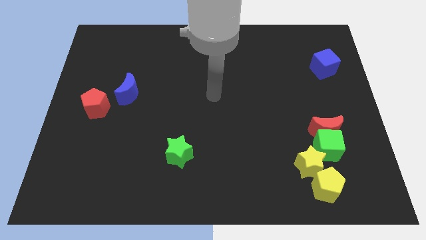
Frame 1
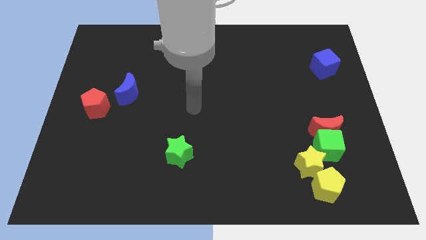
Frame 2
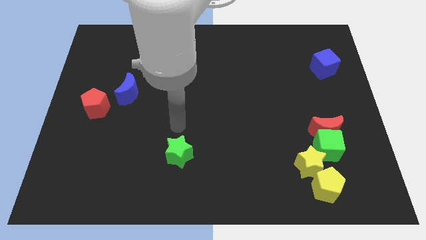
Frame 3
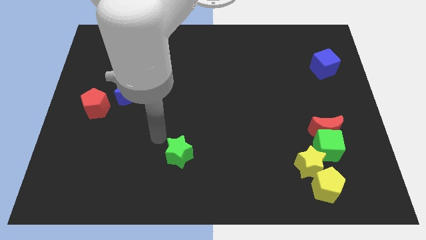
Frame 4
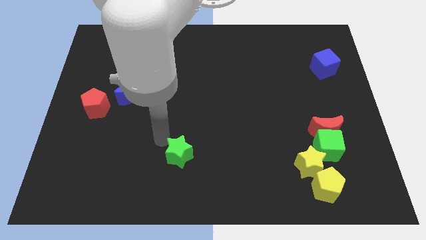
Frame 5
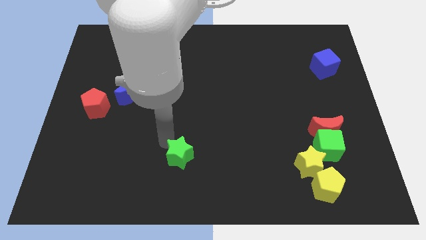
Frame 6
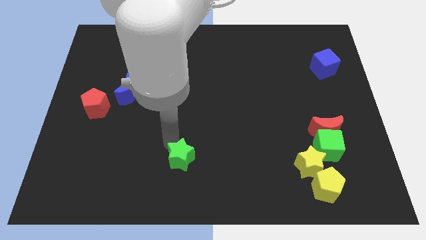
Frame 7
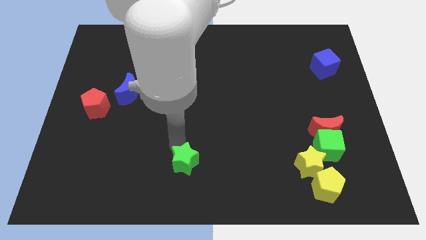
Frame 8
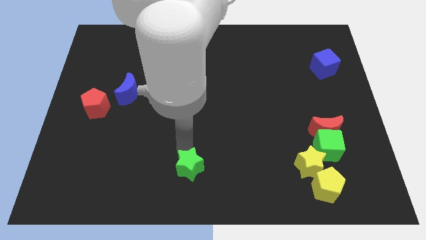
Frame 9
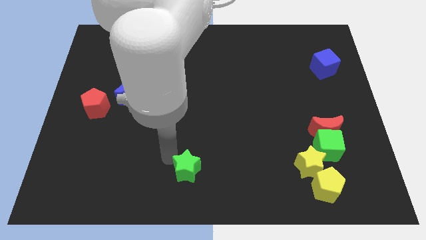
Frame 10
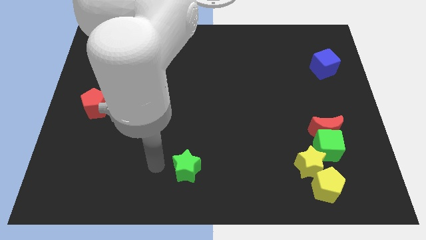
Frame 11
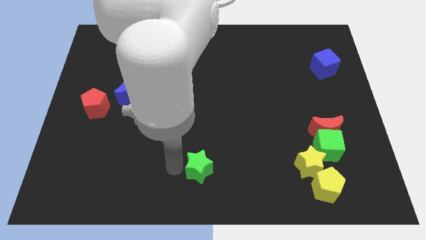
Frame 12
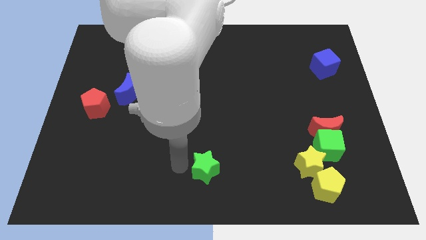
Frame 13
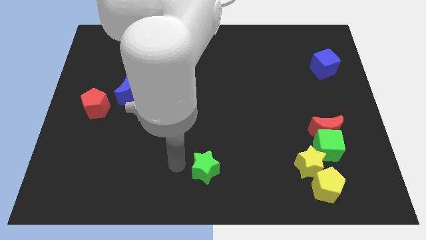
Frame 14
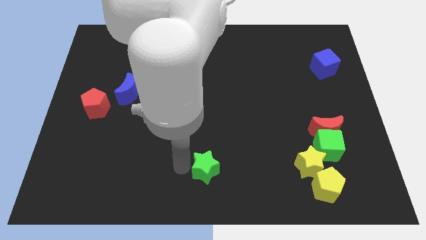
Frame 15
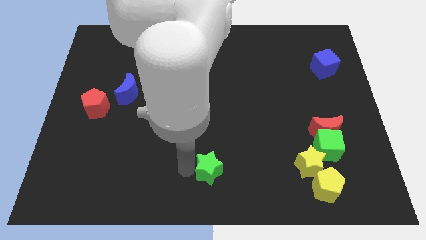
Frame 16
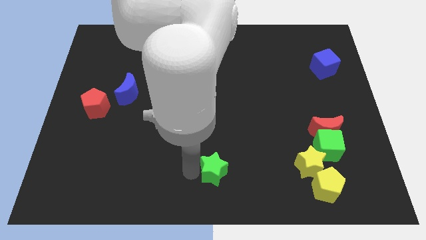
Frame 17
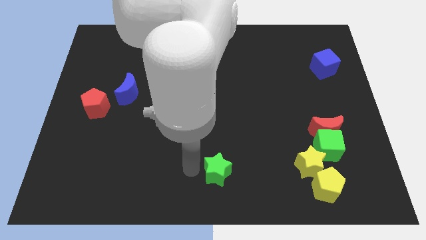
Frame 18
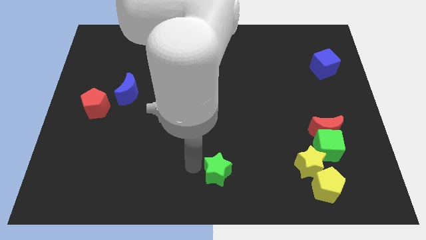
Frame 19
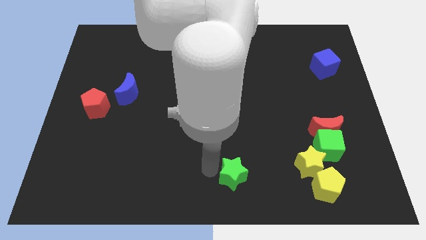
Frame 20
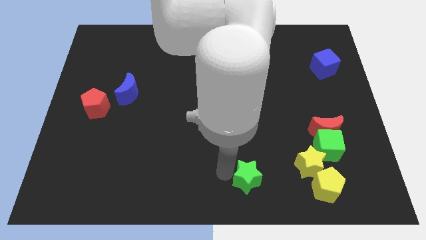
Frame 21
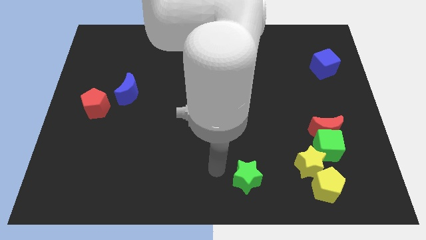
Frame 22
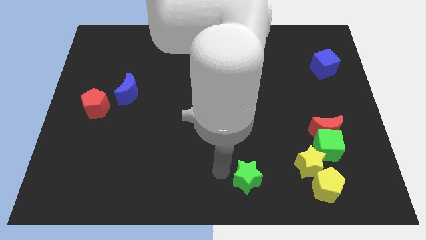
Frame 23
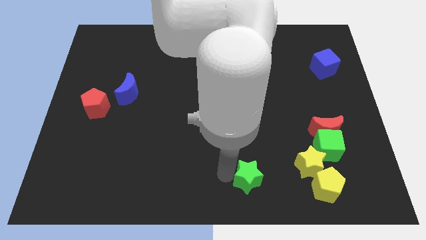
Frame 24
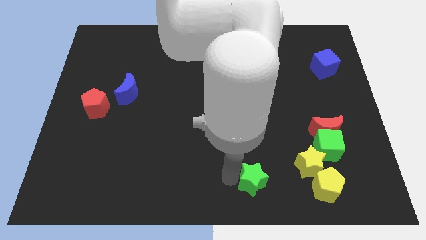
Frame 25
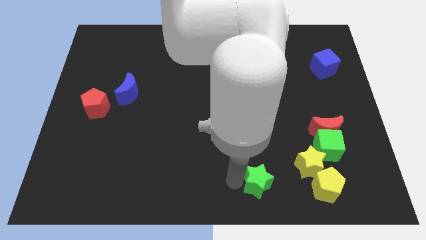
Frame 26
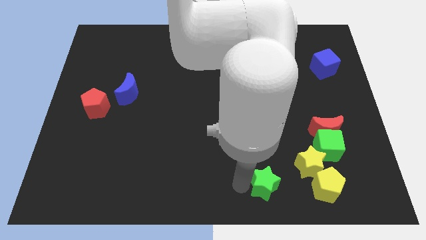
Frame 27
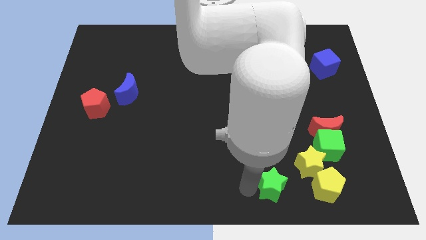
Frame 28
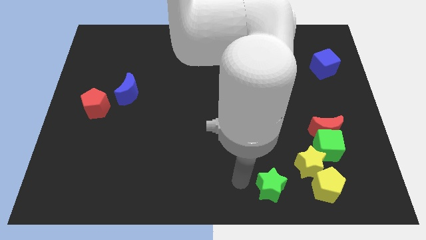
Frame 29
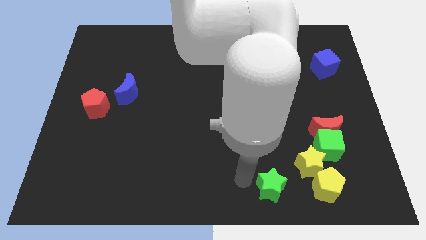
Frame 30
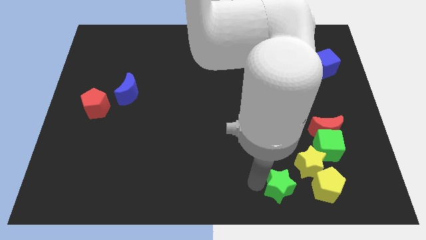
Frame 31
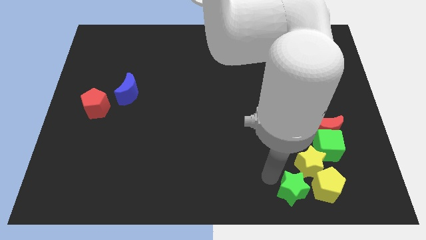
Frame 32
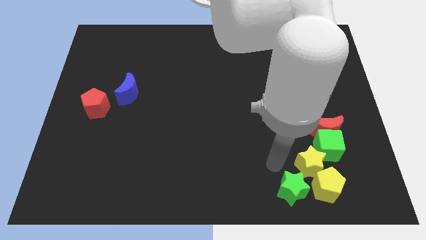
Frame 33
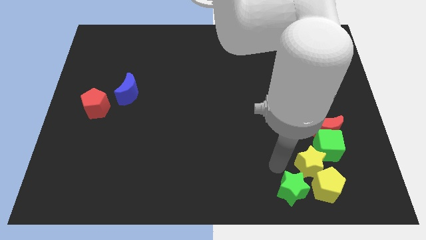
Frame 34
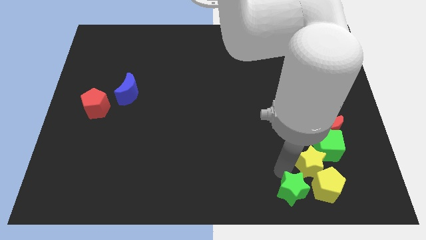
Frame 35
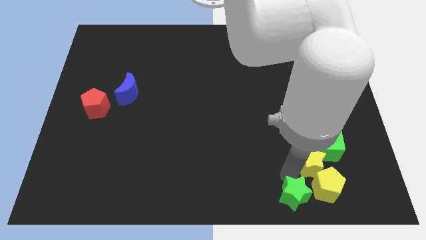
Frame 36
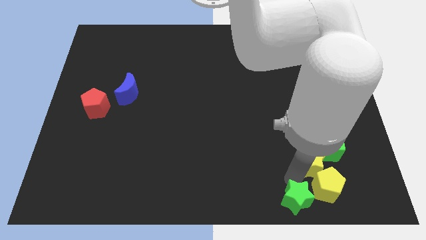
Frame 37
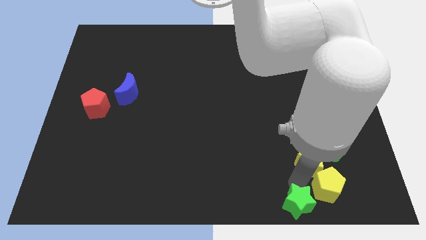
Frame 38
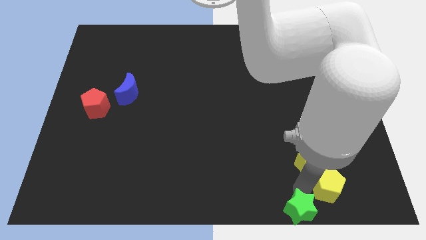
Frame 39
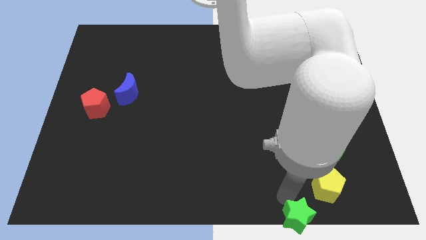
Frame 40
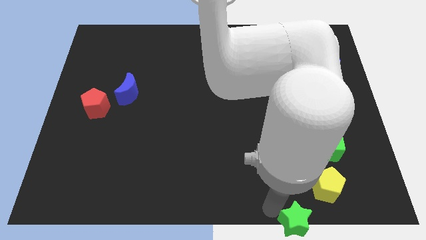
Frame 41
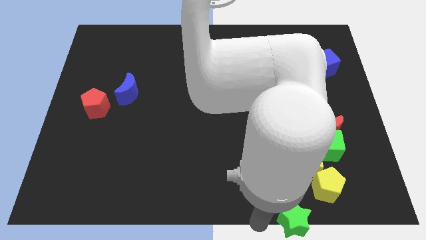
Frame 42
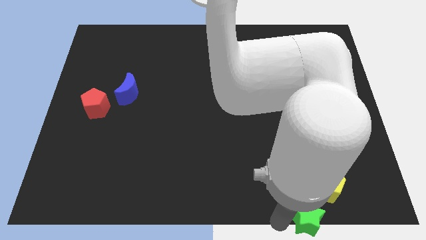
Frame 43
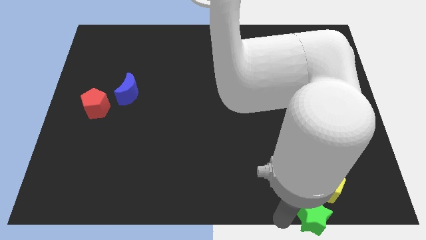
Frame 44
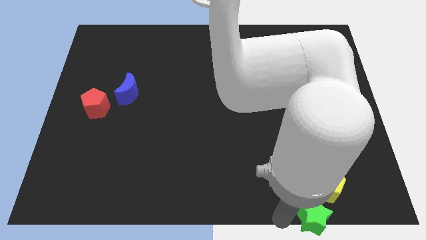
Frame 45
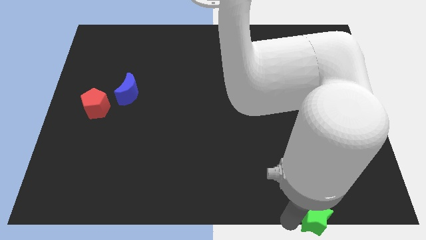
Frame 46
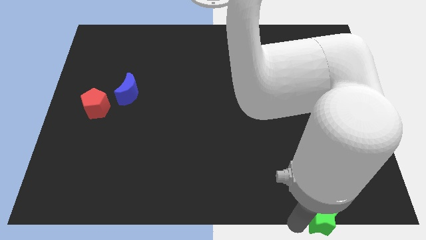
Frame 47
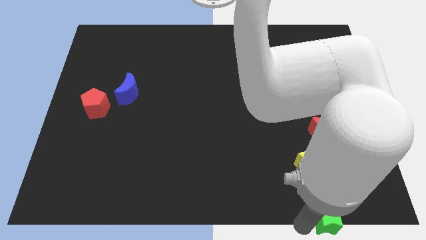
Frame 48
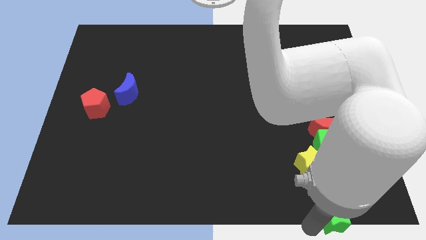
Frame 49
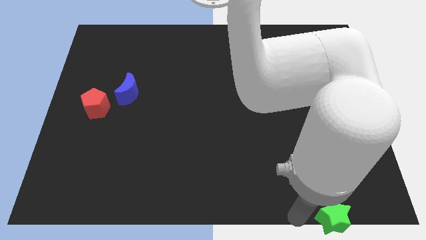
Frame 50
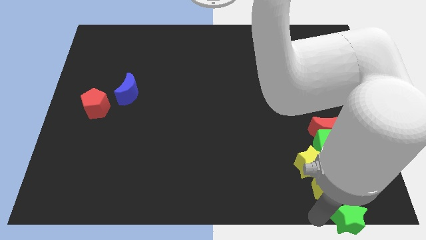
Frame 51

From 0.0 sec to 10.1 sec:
push the green star to the bottom right corner

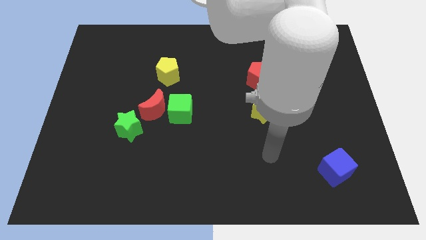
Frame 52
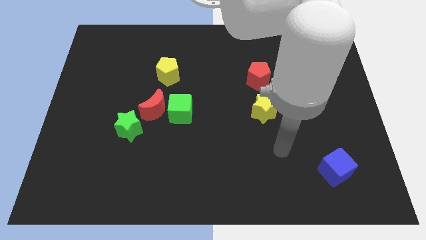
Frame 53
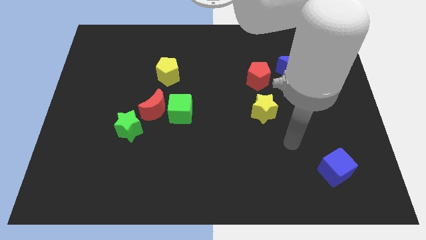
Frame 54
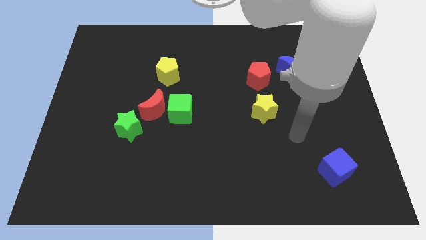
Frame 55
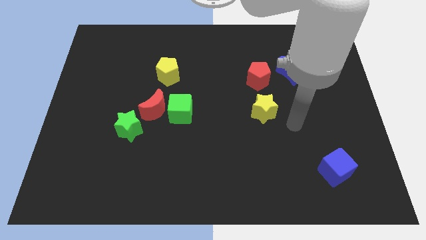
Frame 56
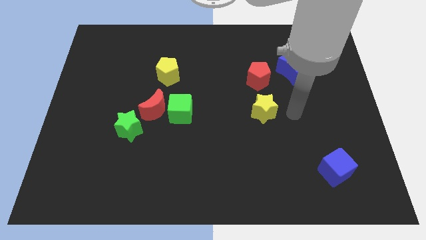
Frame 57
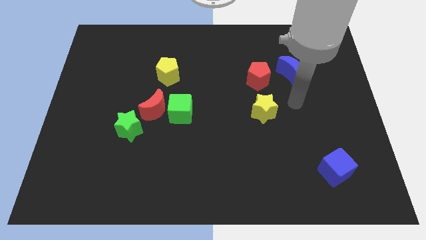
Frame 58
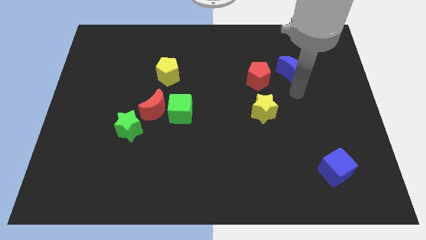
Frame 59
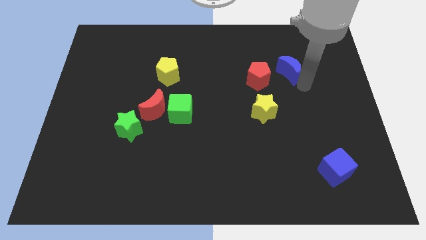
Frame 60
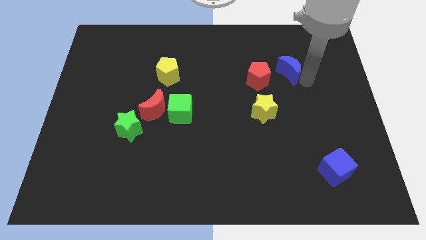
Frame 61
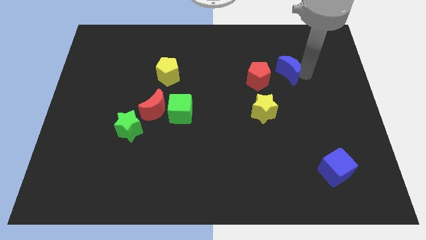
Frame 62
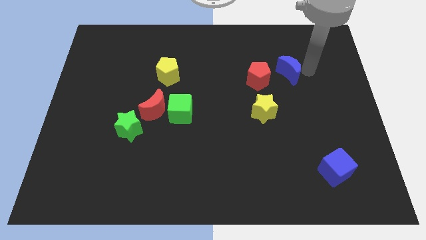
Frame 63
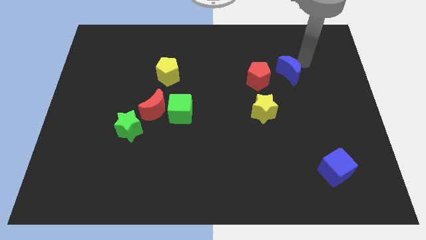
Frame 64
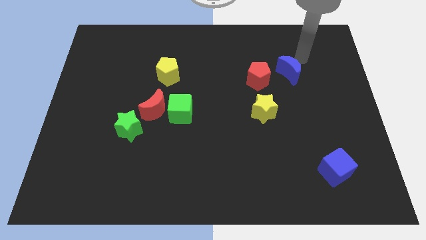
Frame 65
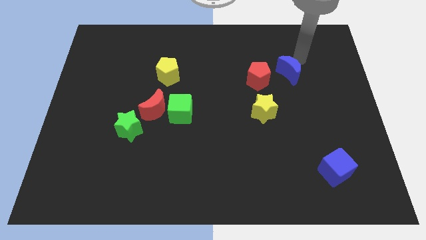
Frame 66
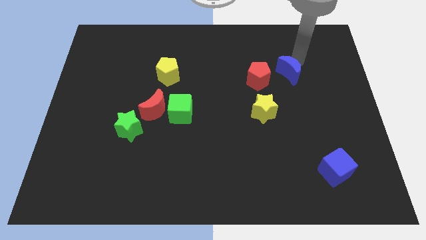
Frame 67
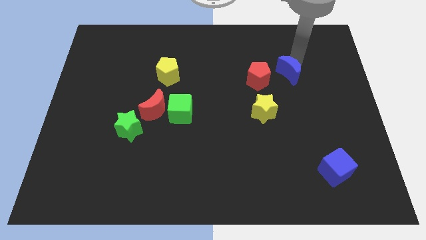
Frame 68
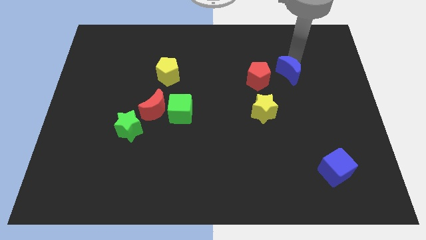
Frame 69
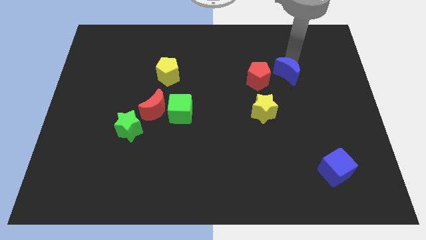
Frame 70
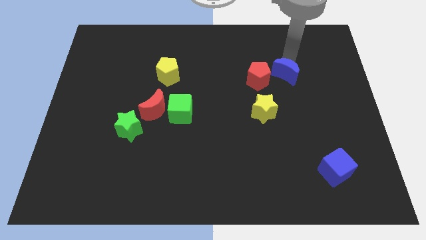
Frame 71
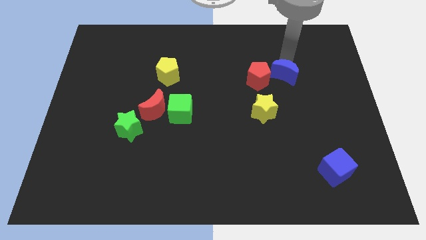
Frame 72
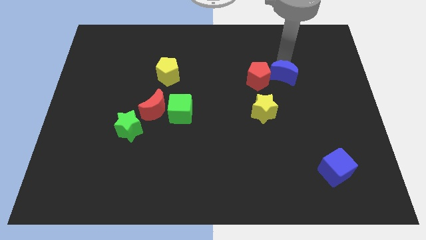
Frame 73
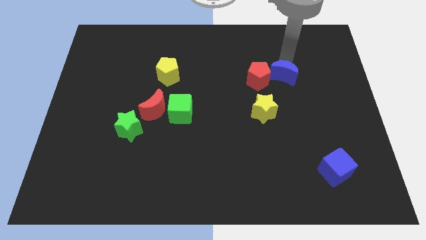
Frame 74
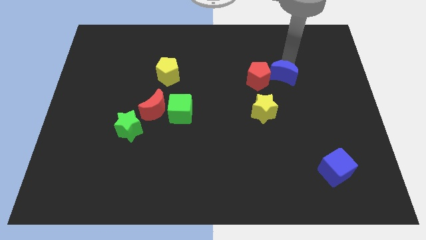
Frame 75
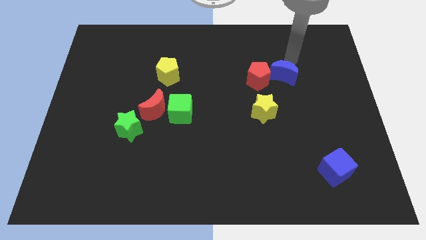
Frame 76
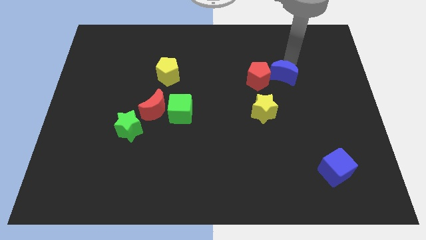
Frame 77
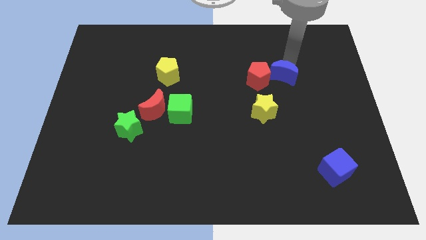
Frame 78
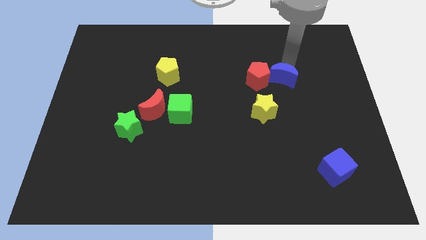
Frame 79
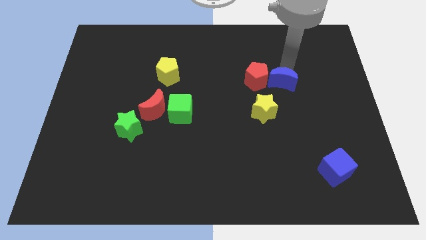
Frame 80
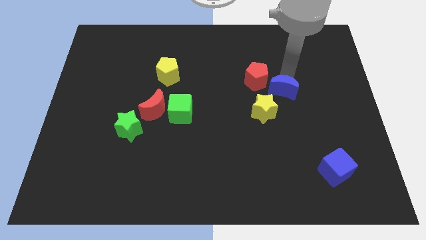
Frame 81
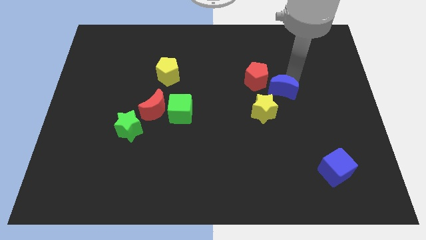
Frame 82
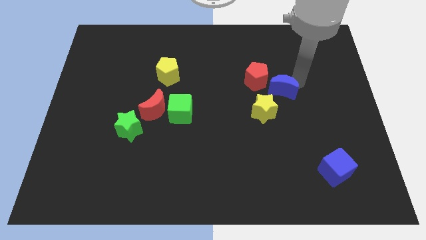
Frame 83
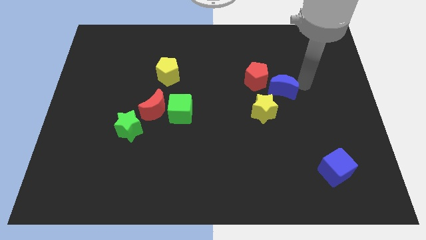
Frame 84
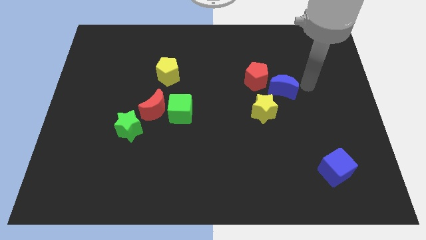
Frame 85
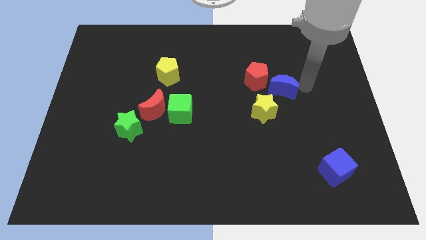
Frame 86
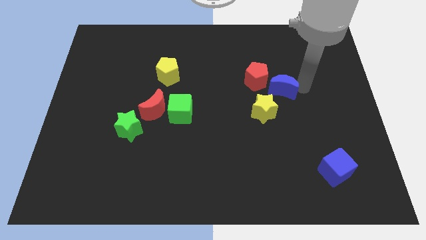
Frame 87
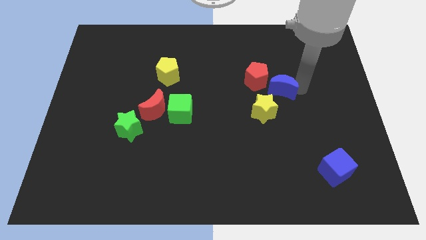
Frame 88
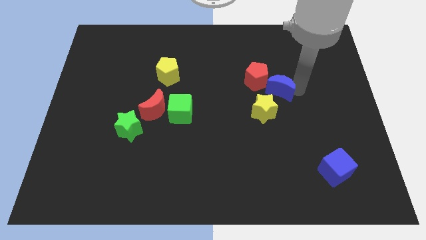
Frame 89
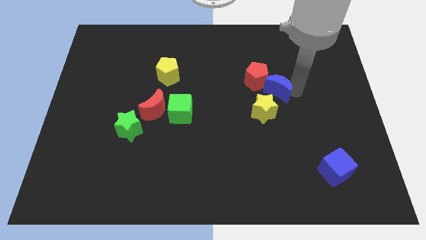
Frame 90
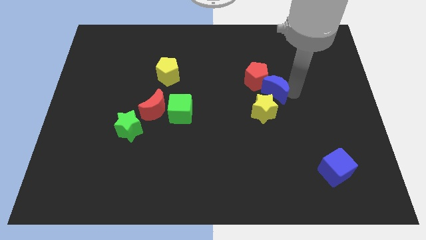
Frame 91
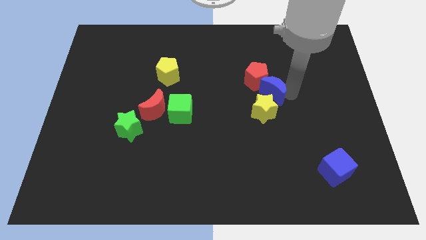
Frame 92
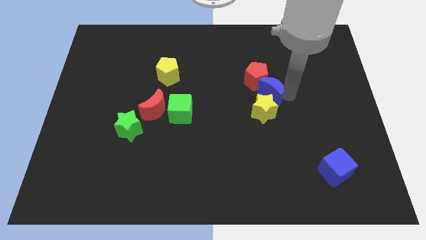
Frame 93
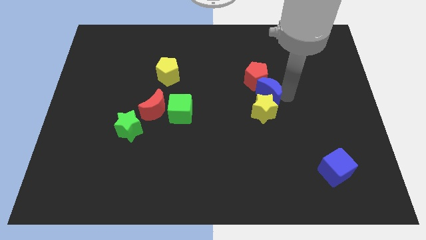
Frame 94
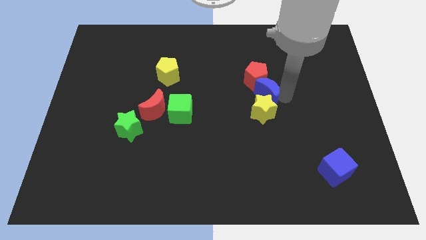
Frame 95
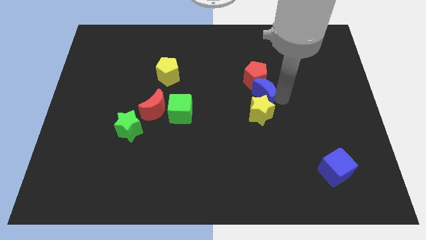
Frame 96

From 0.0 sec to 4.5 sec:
push the blue moon to the middle of the board
